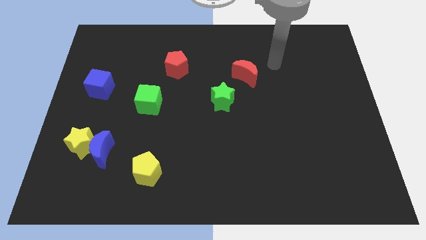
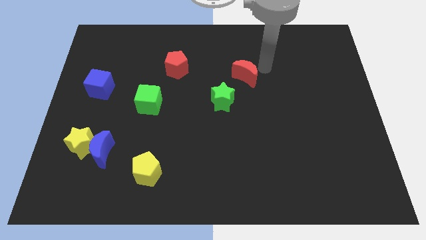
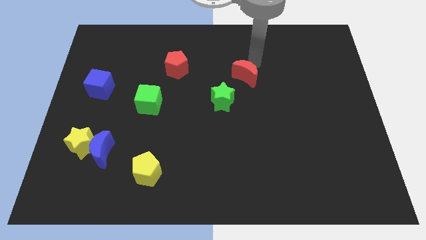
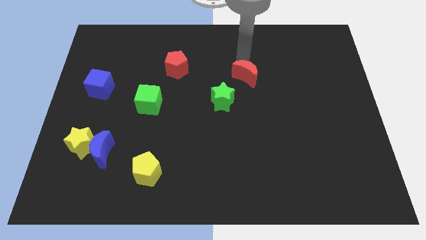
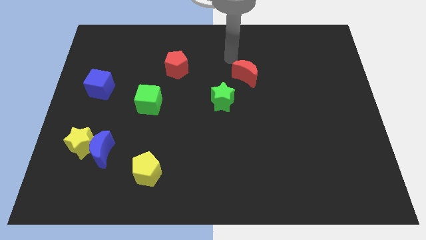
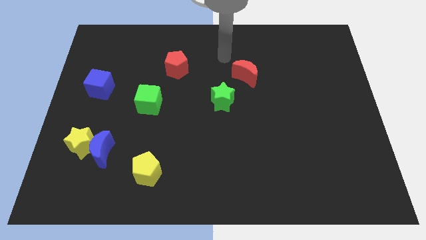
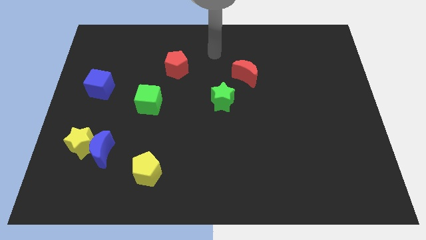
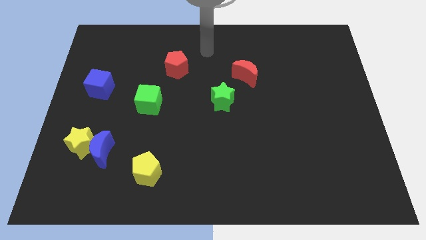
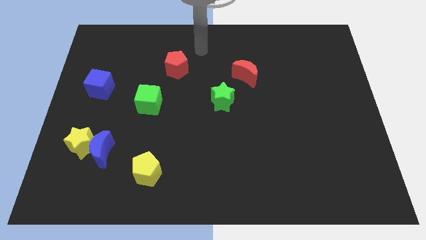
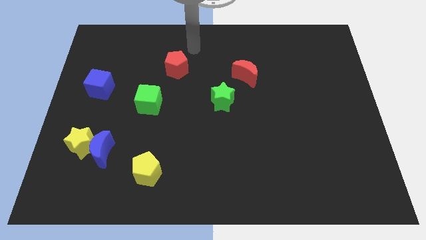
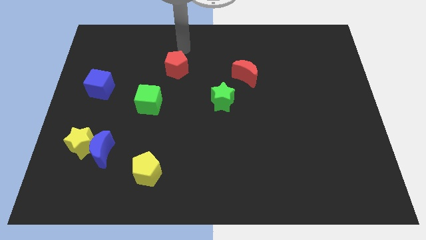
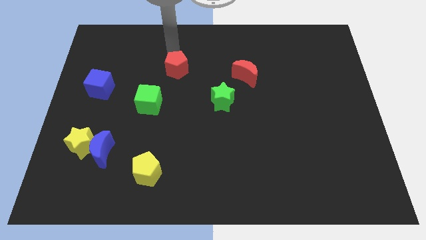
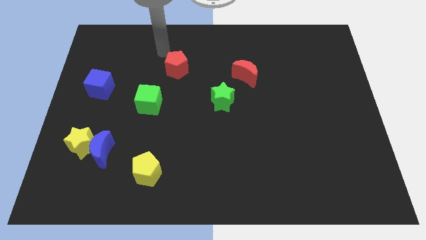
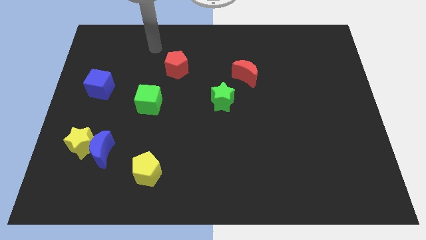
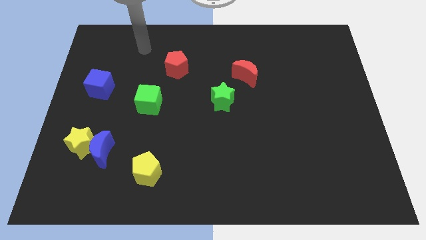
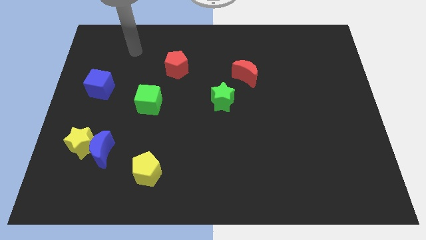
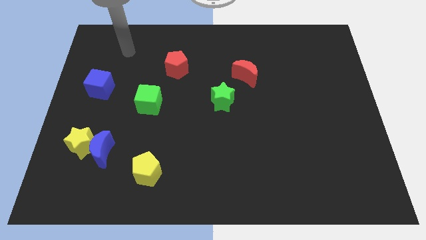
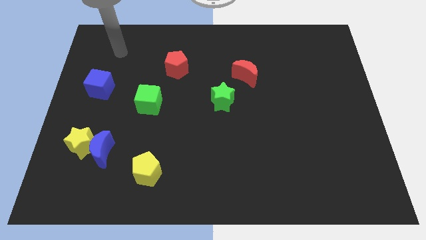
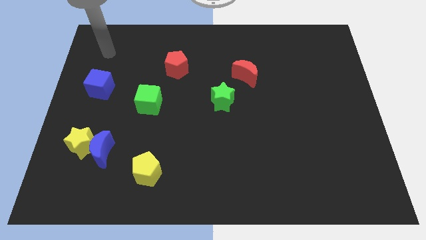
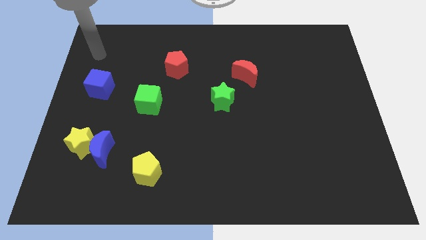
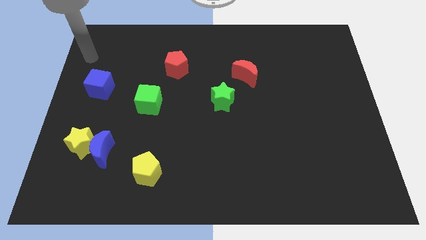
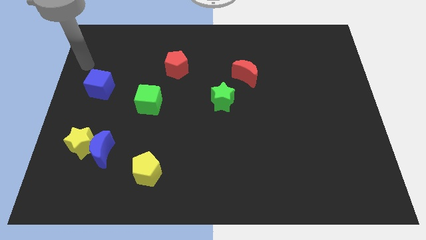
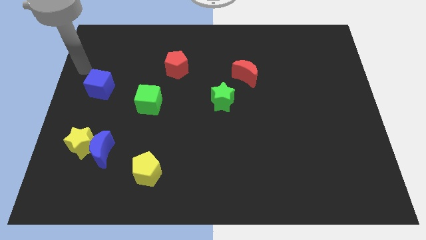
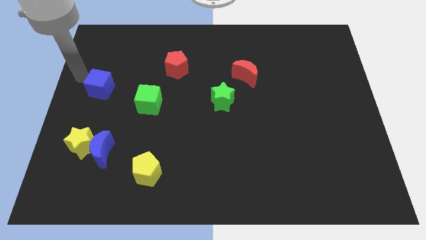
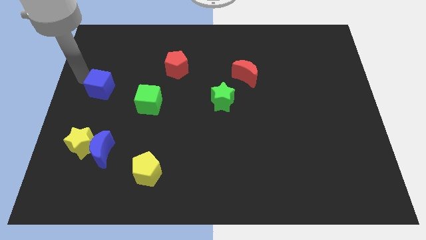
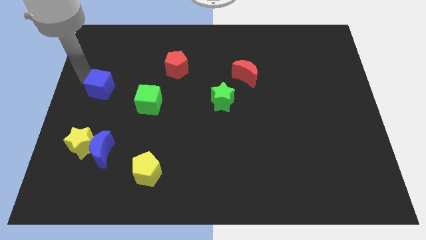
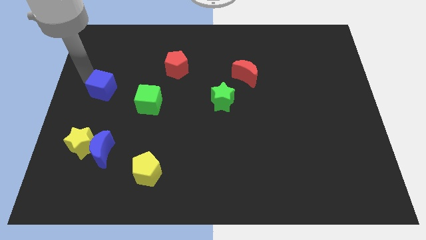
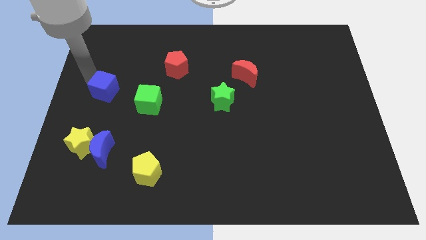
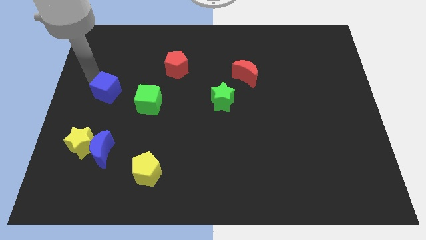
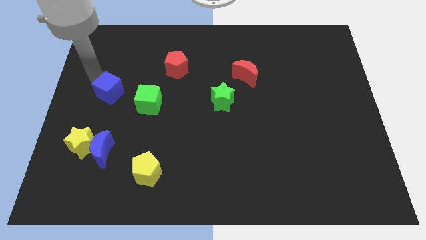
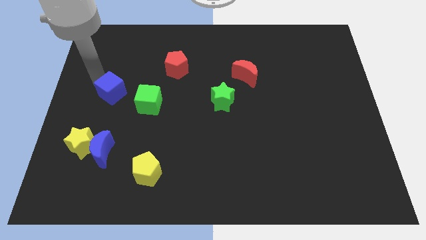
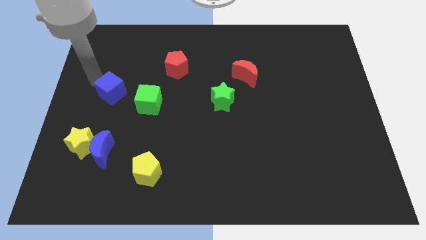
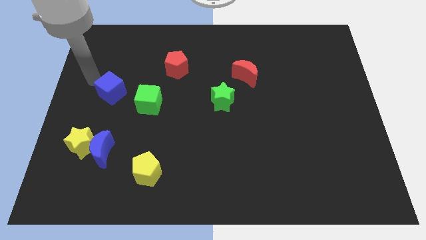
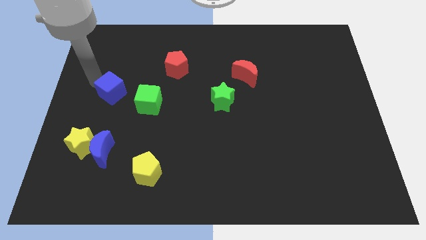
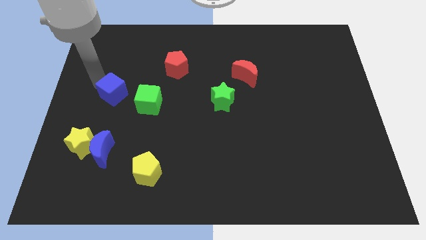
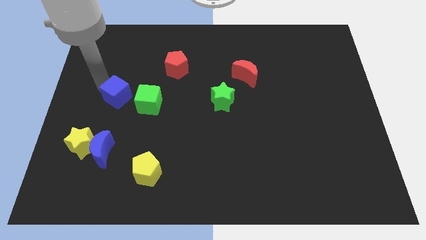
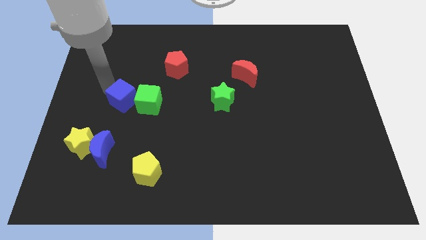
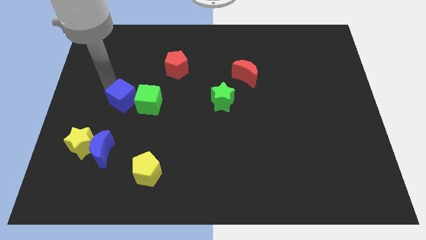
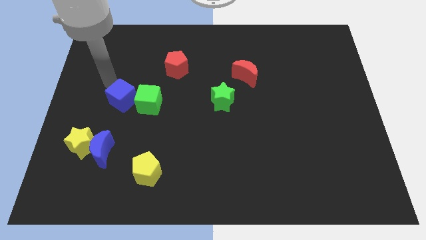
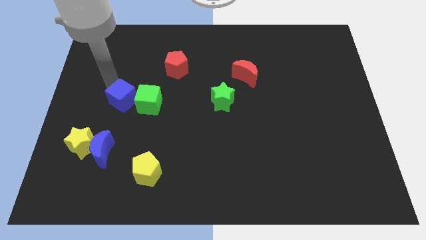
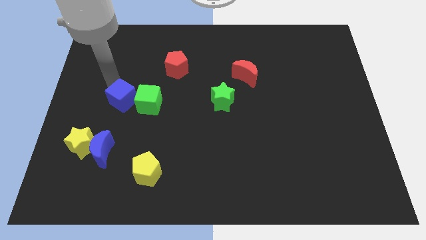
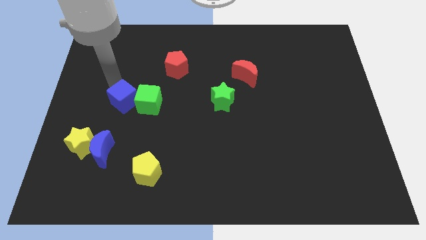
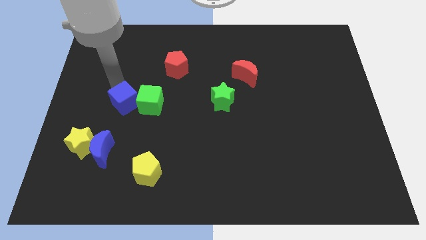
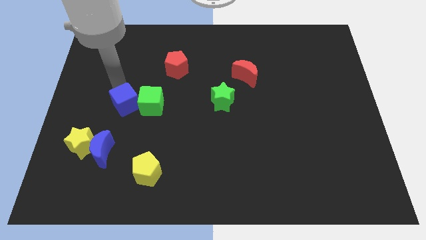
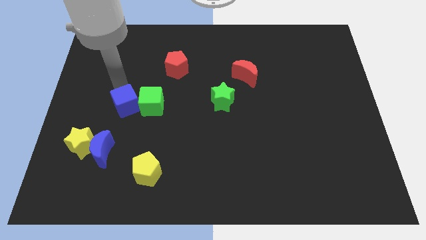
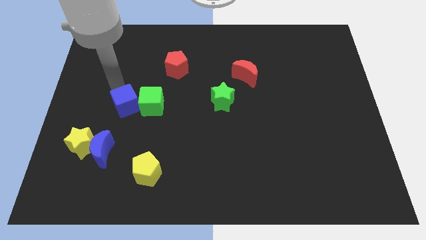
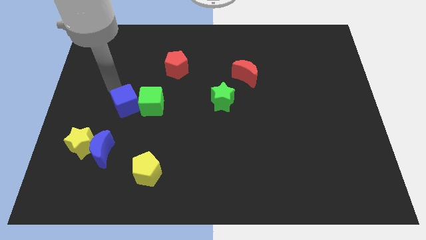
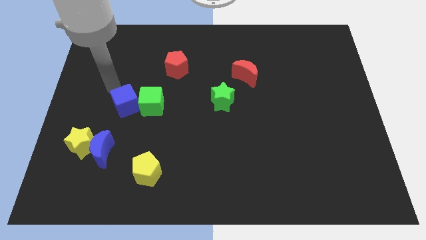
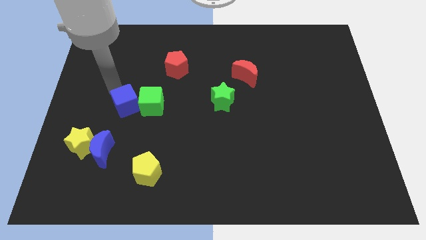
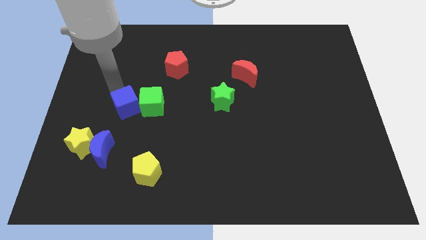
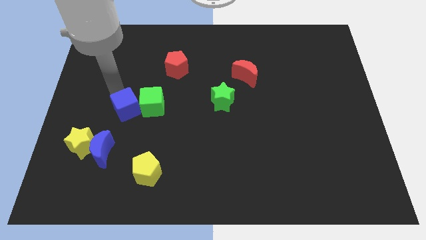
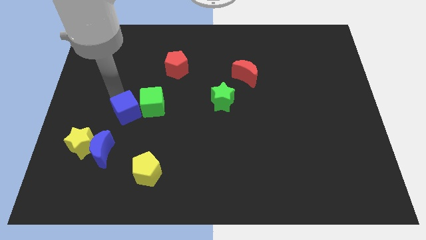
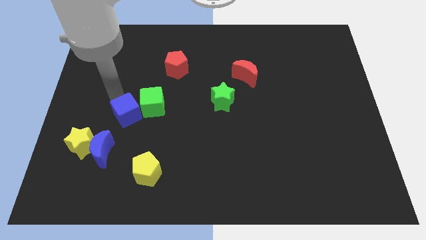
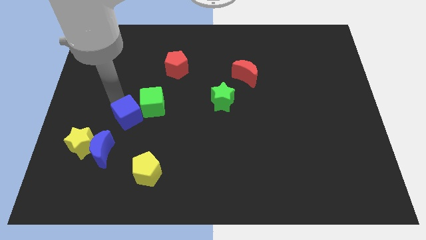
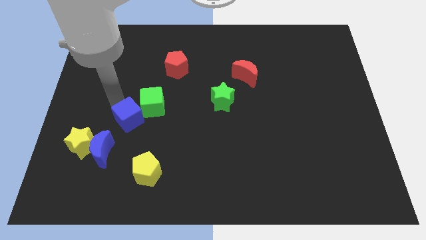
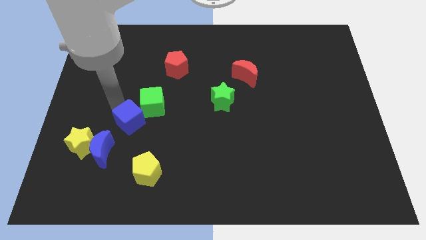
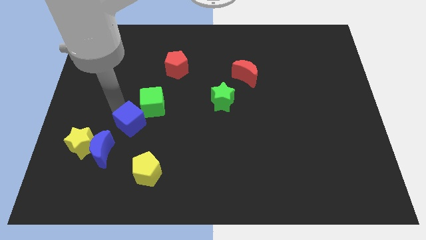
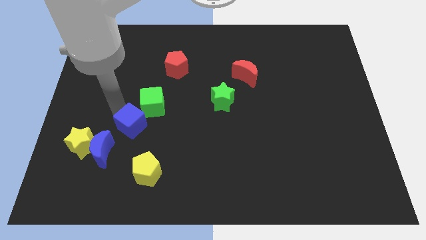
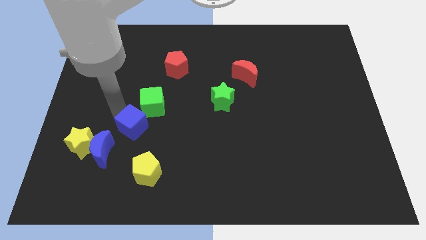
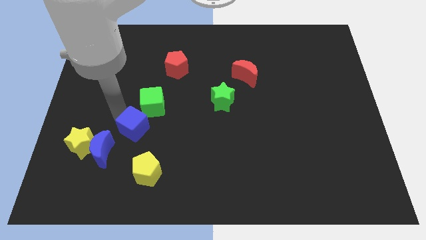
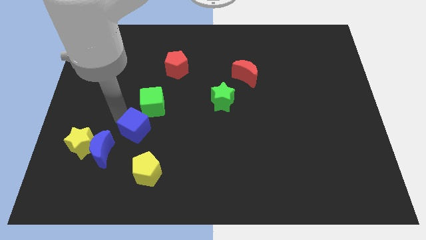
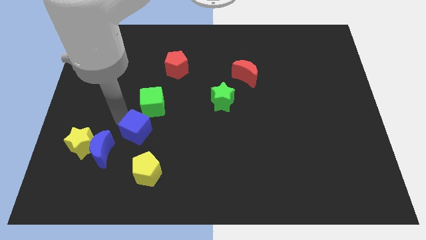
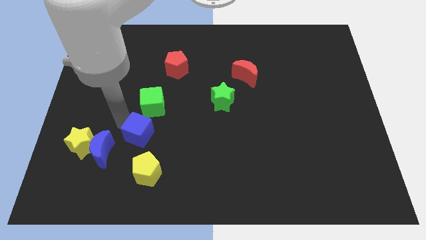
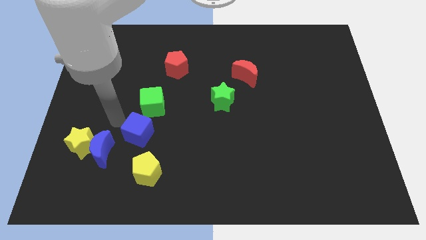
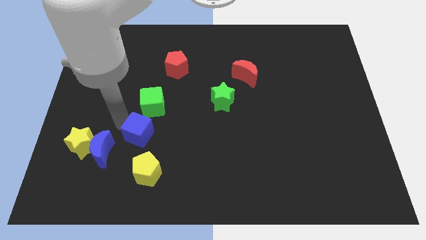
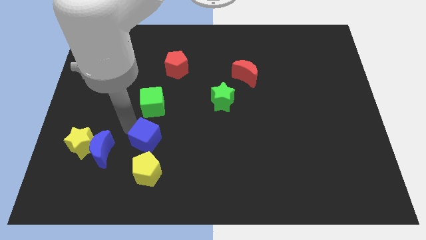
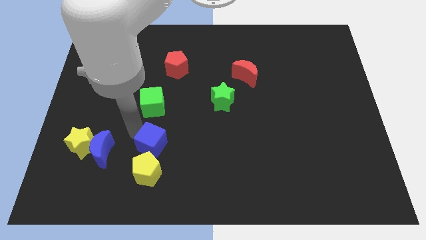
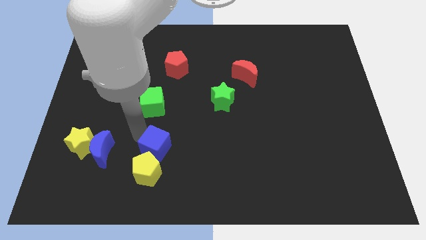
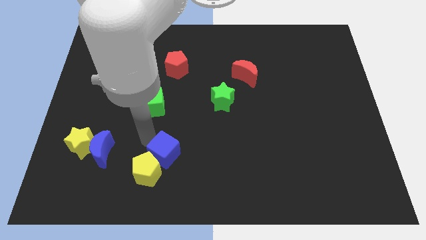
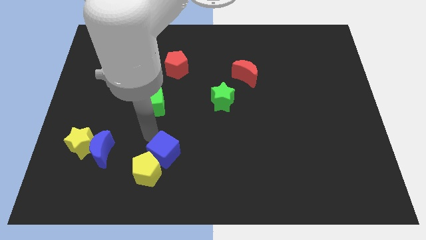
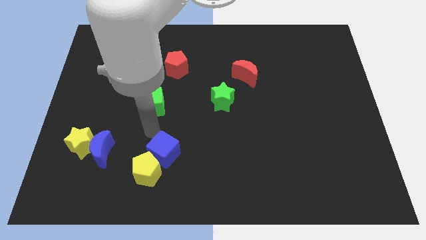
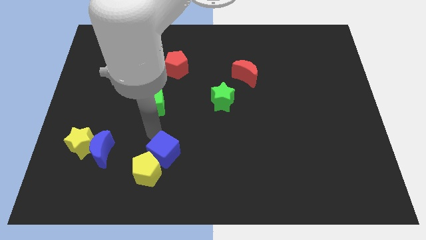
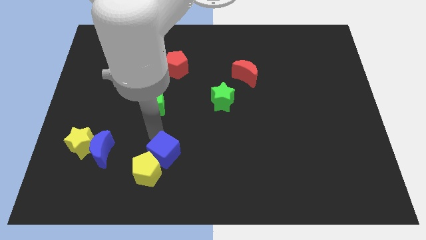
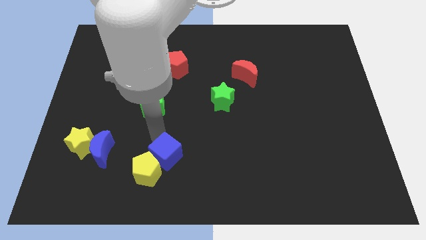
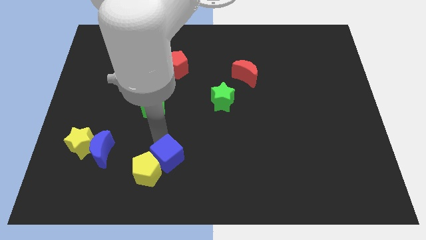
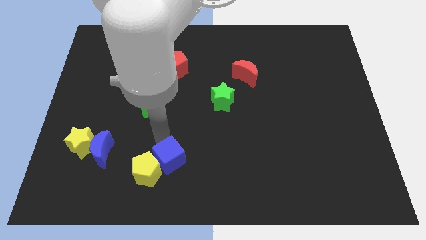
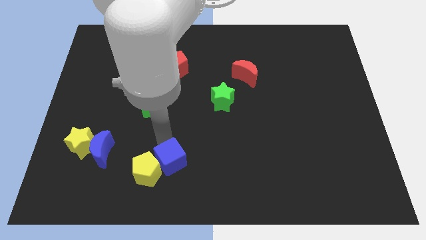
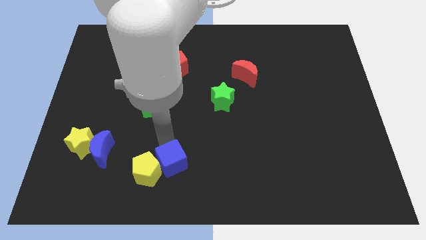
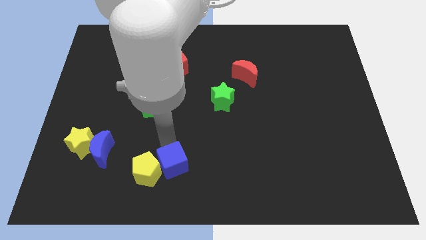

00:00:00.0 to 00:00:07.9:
push the blue cube to the bottom side
